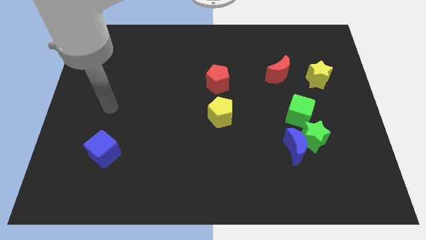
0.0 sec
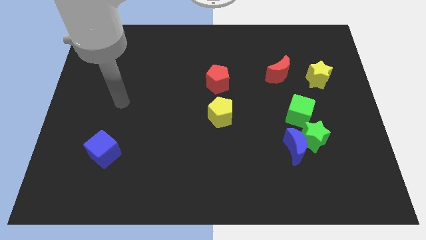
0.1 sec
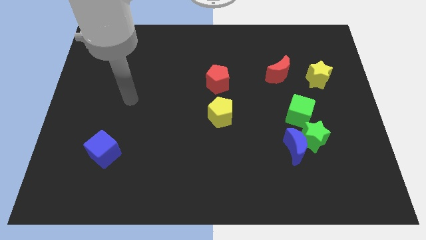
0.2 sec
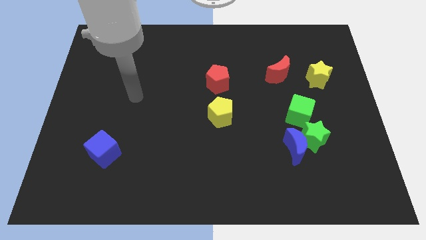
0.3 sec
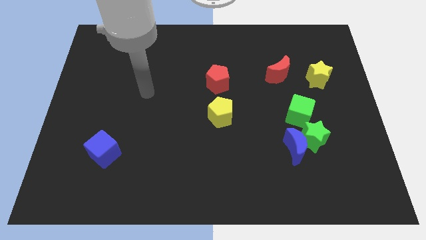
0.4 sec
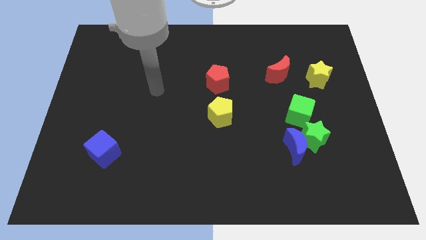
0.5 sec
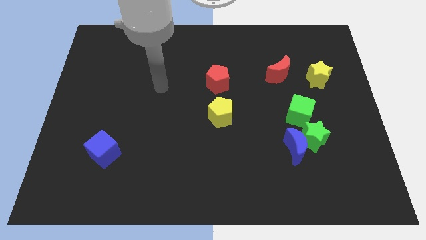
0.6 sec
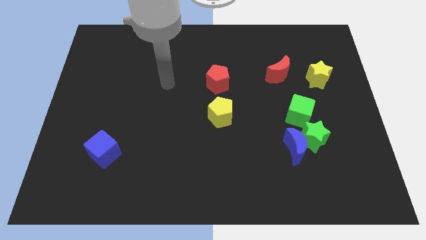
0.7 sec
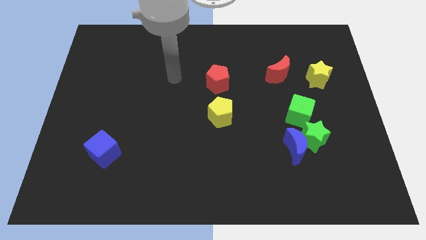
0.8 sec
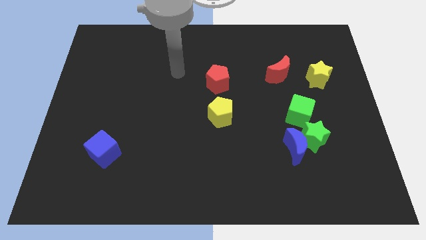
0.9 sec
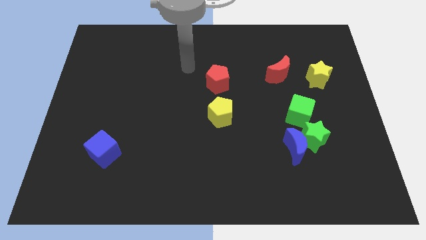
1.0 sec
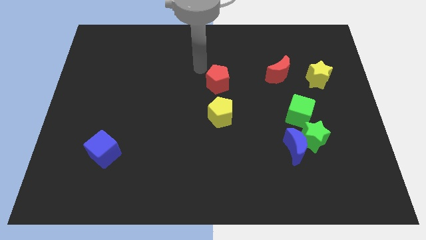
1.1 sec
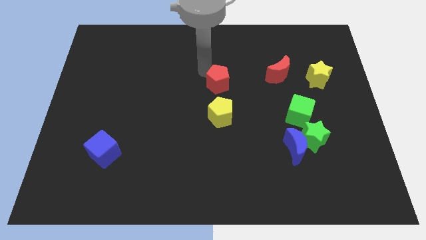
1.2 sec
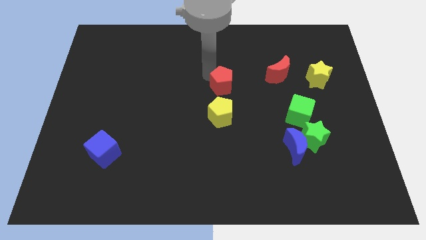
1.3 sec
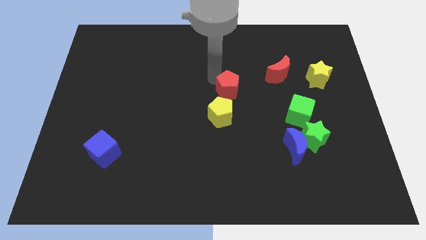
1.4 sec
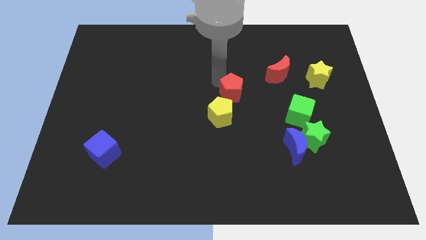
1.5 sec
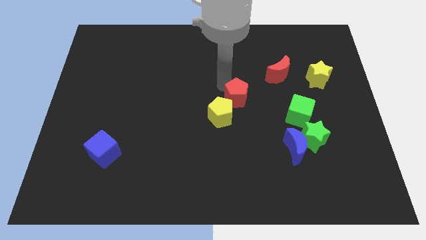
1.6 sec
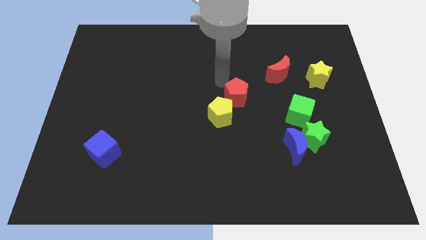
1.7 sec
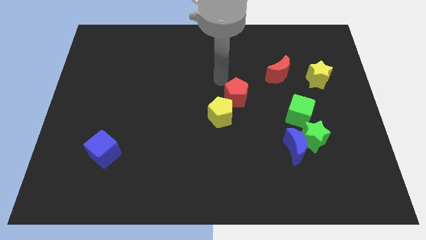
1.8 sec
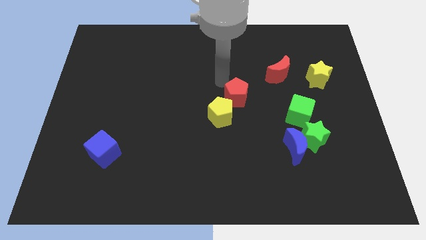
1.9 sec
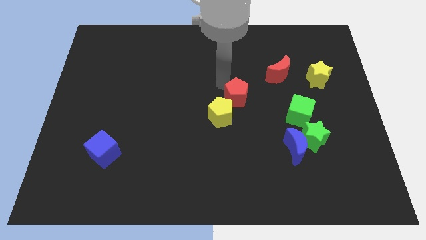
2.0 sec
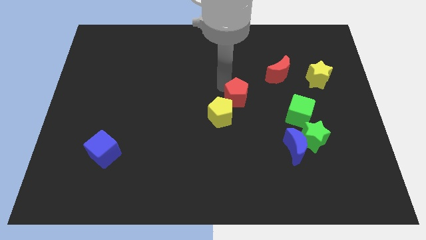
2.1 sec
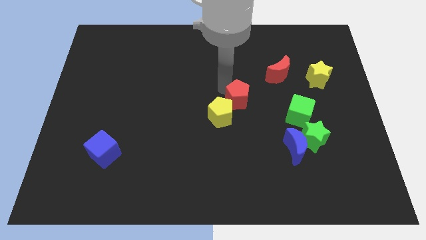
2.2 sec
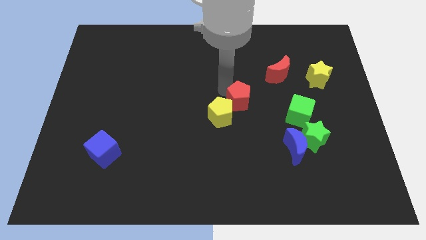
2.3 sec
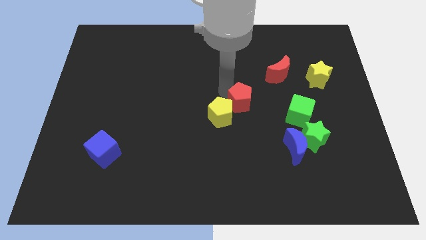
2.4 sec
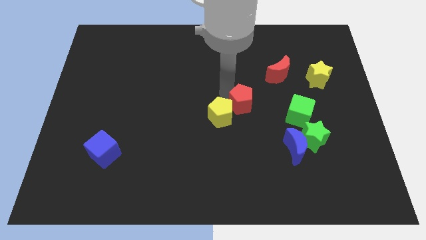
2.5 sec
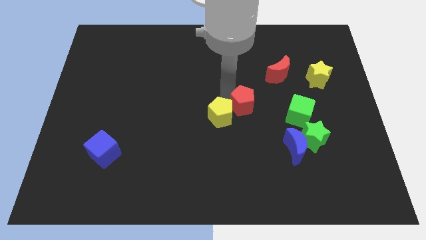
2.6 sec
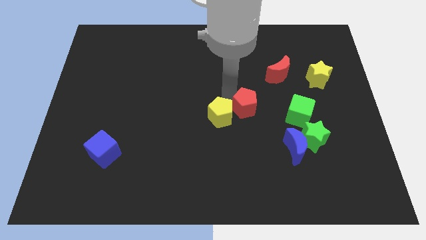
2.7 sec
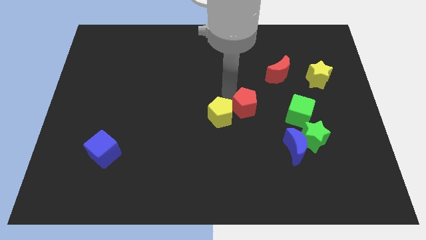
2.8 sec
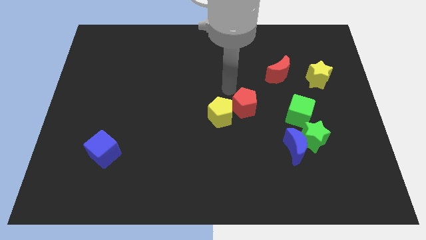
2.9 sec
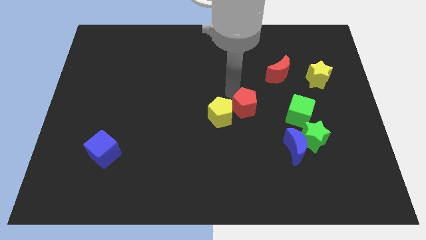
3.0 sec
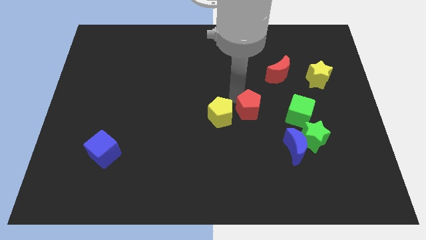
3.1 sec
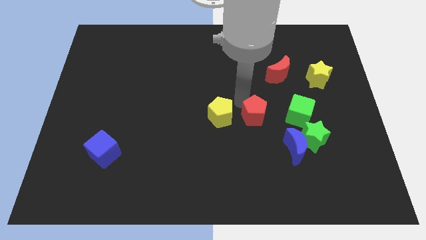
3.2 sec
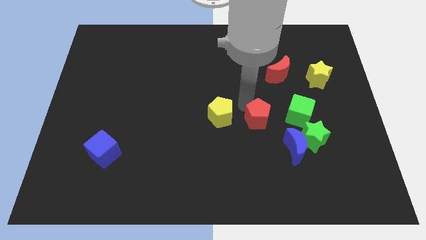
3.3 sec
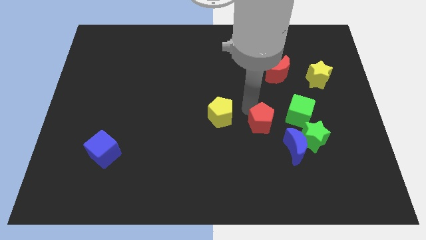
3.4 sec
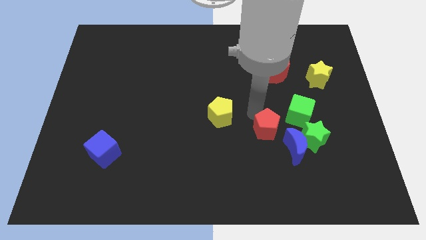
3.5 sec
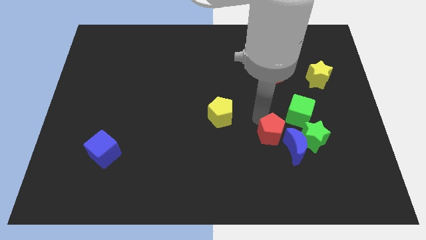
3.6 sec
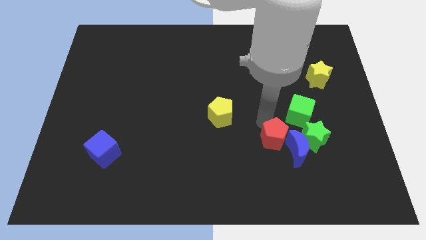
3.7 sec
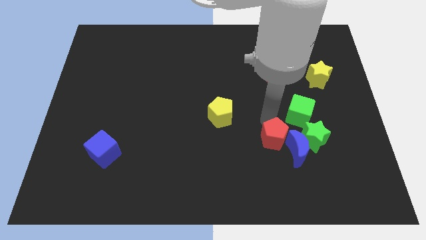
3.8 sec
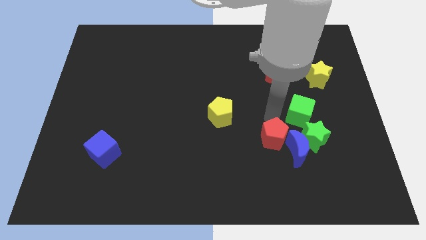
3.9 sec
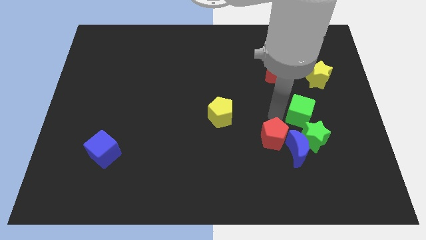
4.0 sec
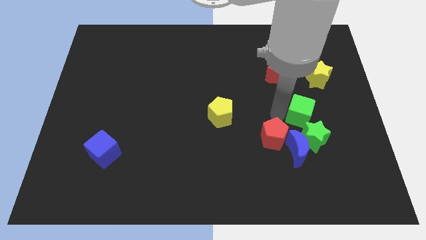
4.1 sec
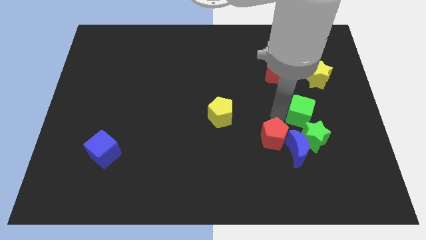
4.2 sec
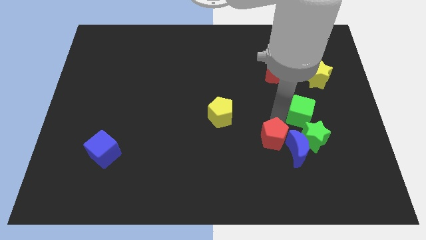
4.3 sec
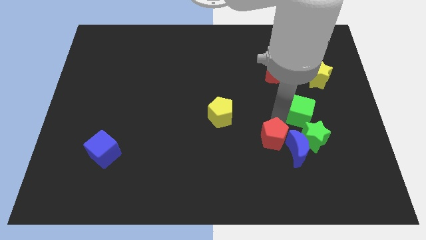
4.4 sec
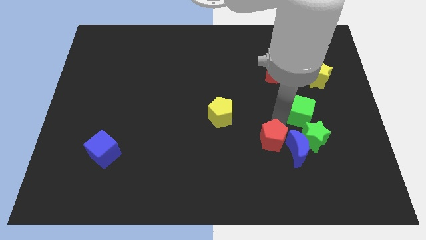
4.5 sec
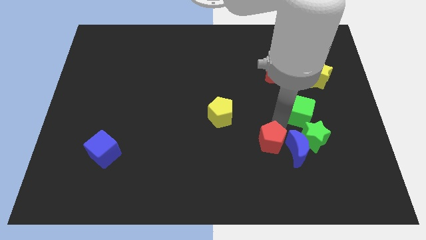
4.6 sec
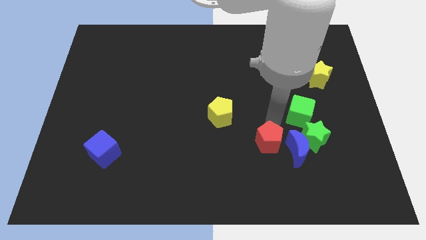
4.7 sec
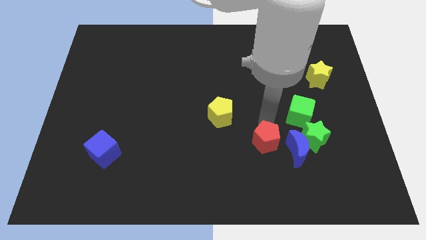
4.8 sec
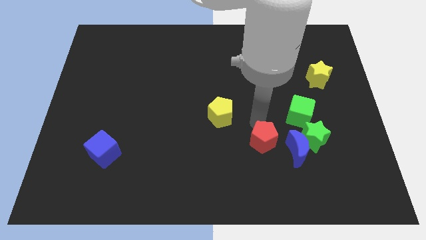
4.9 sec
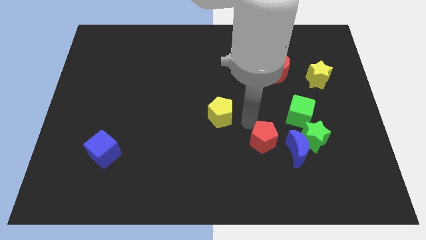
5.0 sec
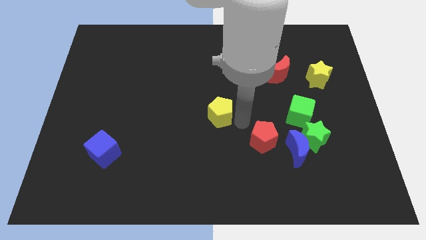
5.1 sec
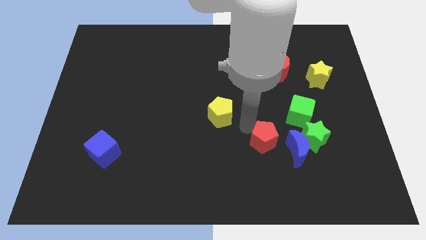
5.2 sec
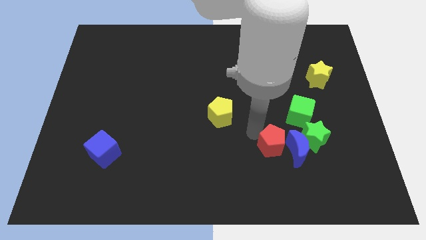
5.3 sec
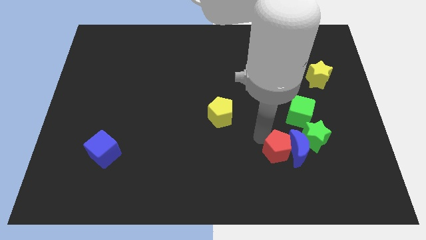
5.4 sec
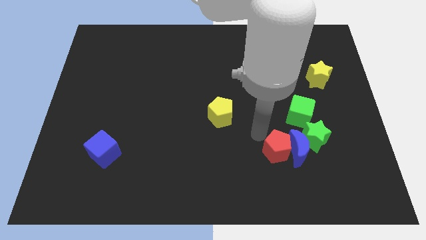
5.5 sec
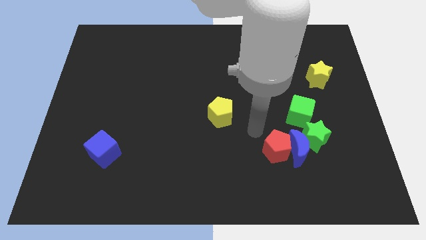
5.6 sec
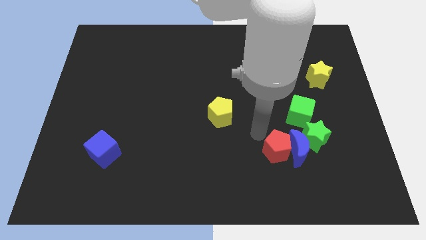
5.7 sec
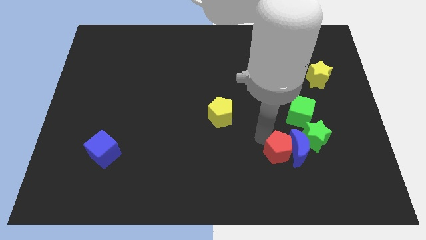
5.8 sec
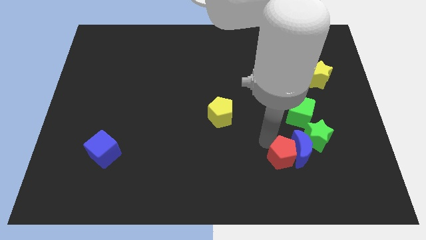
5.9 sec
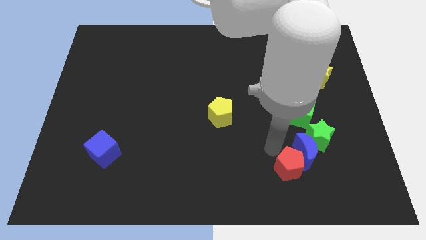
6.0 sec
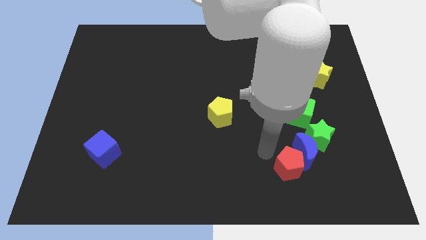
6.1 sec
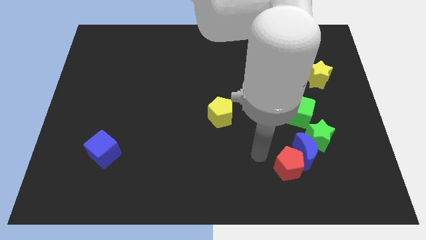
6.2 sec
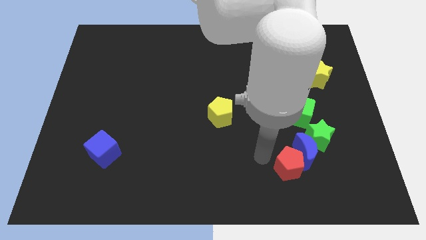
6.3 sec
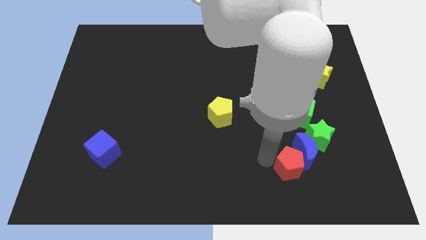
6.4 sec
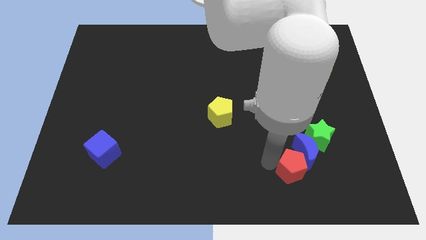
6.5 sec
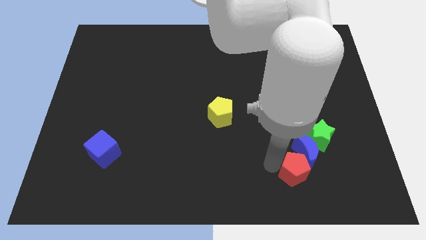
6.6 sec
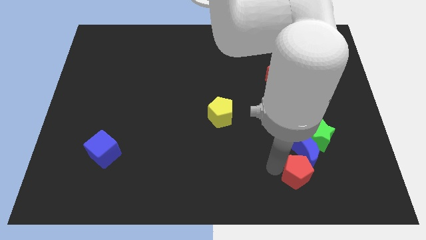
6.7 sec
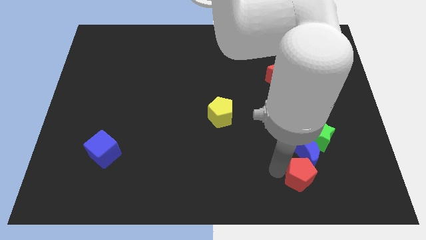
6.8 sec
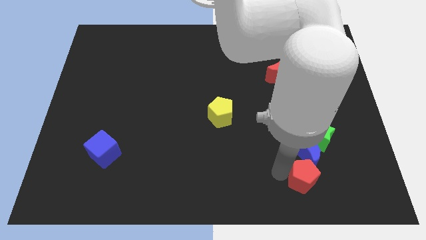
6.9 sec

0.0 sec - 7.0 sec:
push the red pentagon to the bottom side of the green star

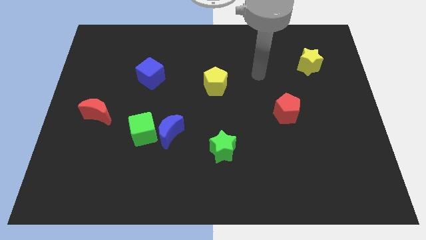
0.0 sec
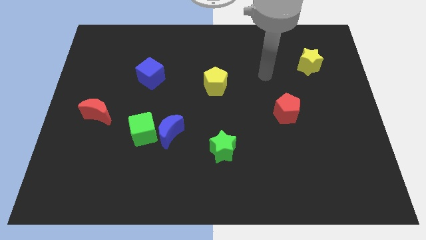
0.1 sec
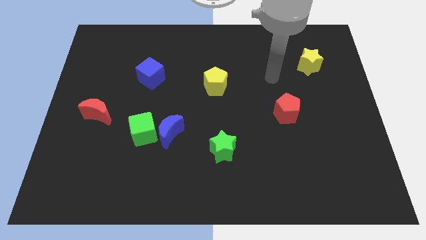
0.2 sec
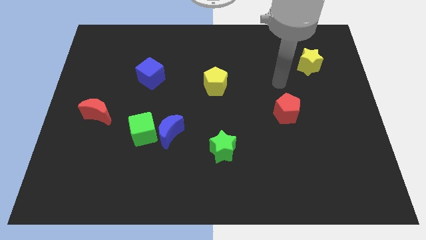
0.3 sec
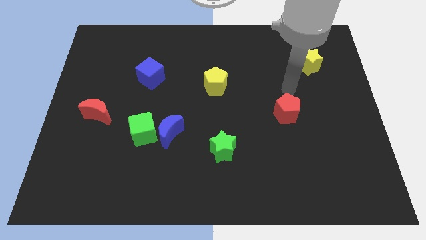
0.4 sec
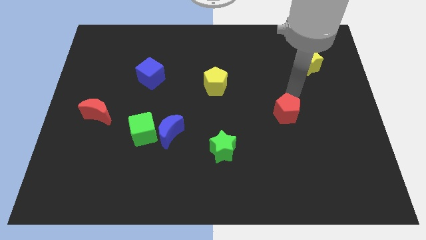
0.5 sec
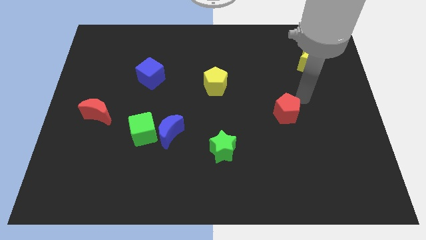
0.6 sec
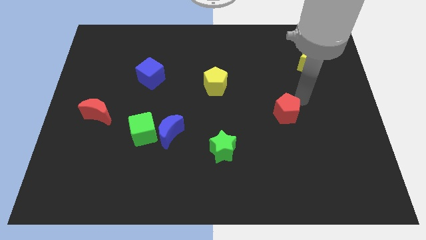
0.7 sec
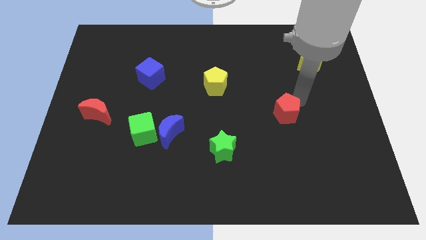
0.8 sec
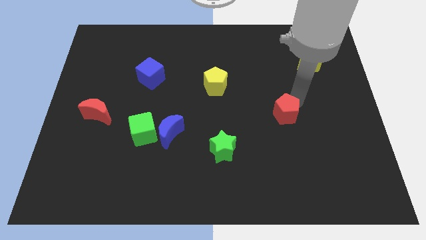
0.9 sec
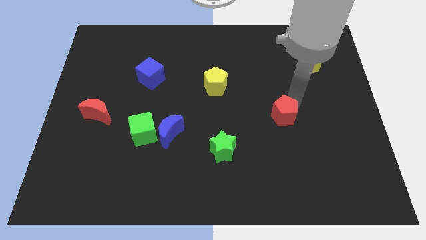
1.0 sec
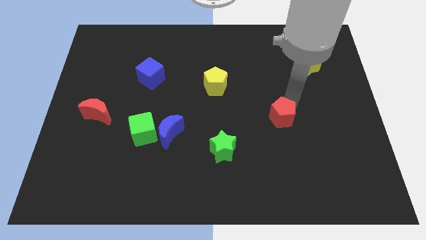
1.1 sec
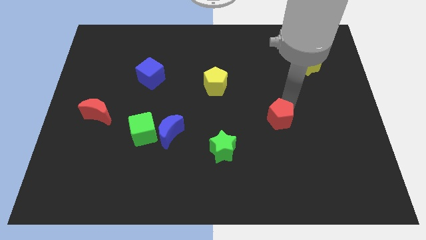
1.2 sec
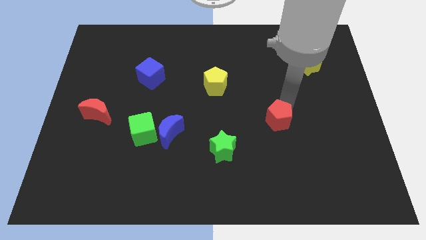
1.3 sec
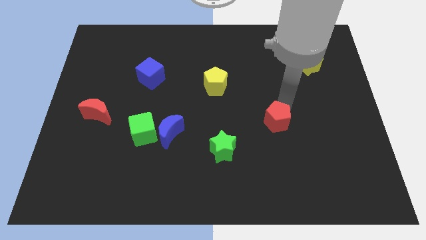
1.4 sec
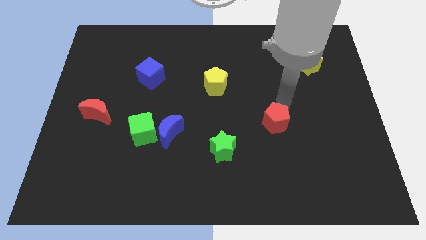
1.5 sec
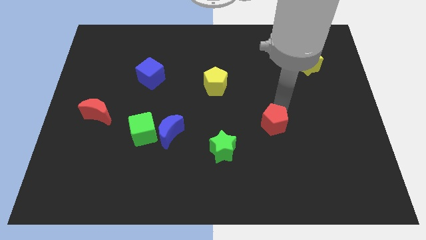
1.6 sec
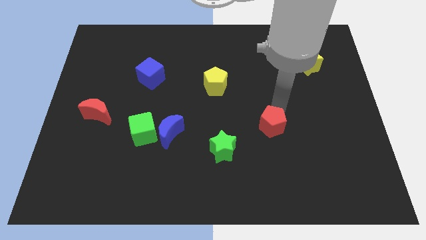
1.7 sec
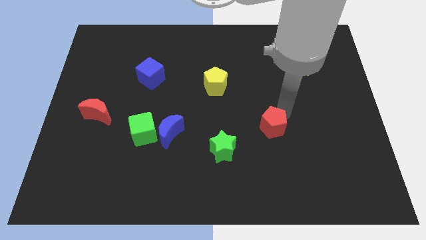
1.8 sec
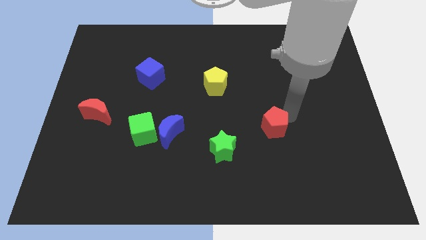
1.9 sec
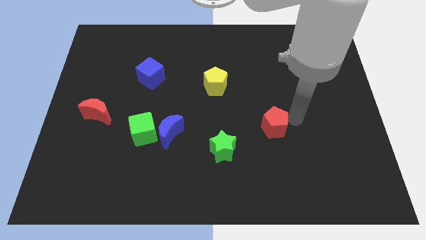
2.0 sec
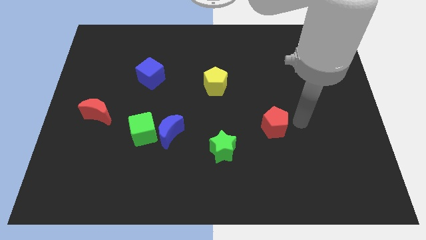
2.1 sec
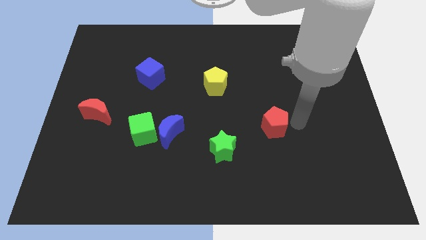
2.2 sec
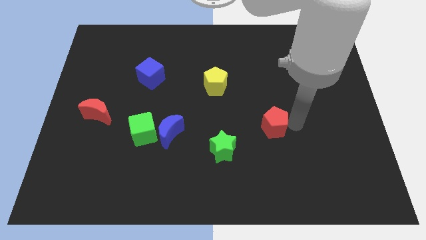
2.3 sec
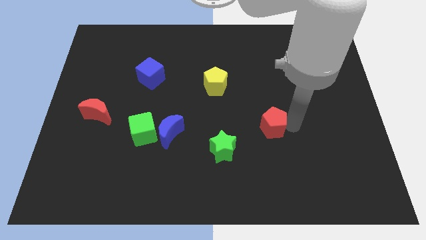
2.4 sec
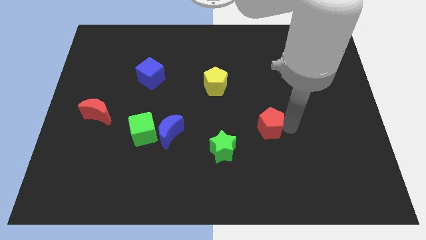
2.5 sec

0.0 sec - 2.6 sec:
slide the red pentagon to the top right side of the green star
